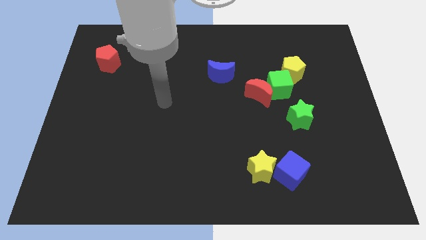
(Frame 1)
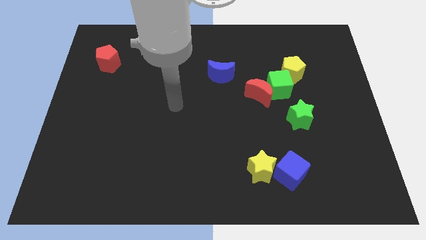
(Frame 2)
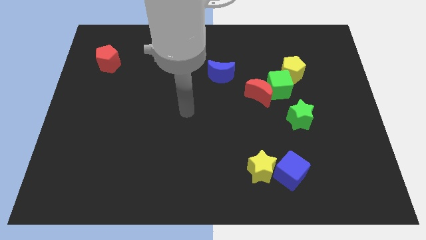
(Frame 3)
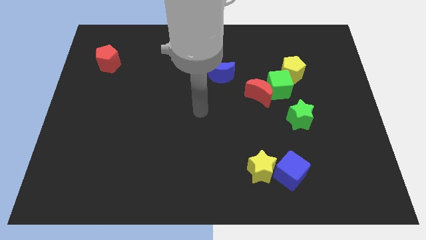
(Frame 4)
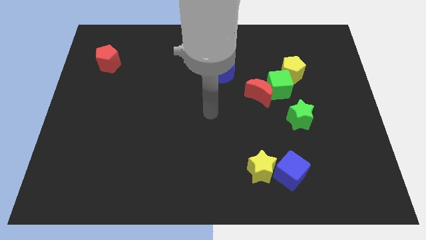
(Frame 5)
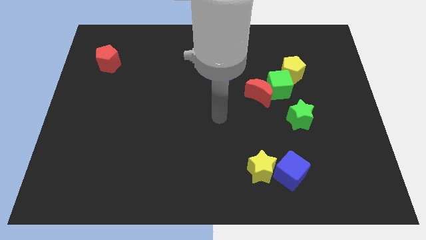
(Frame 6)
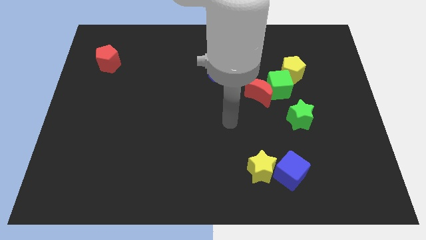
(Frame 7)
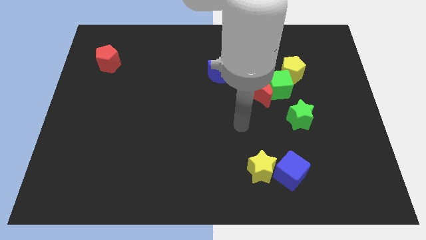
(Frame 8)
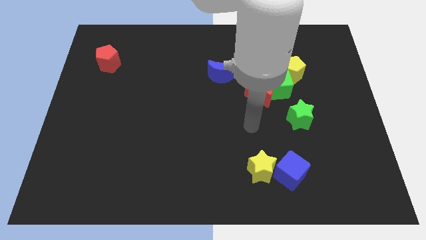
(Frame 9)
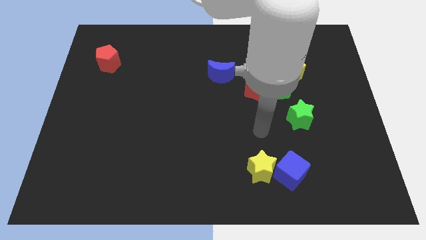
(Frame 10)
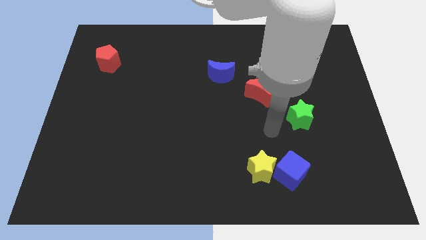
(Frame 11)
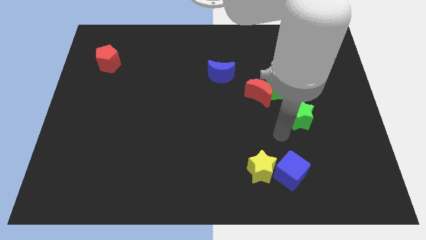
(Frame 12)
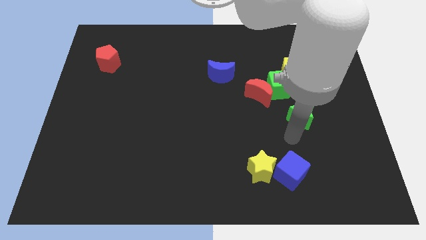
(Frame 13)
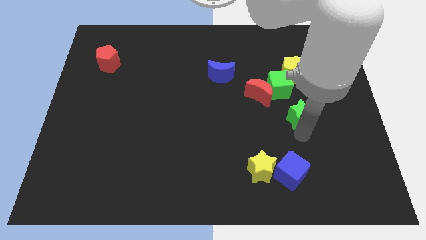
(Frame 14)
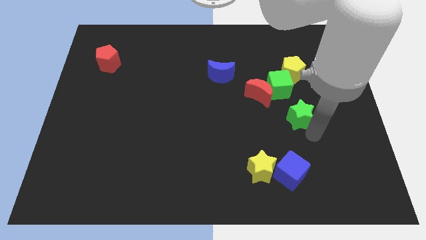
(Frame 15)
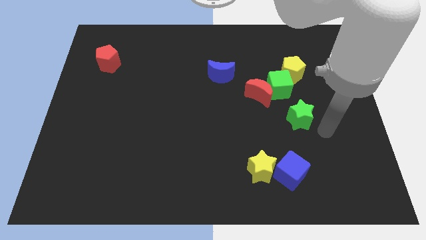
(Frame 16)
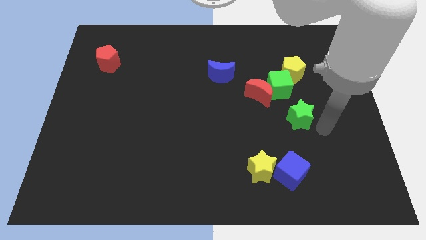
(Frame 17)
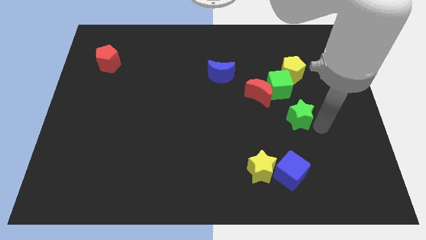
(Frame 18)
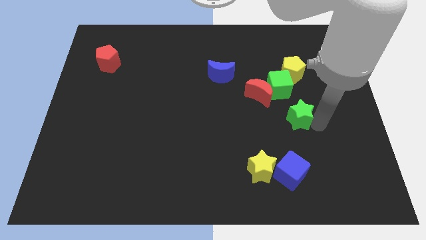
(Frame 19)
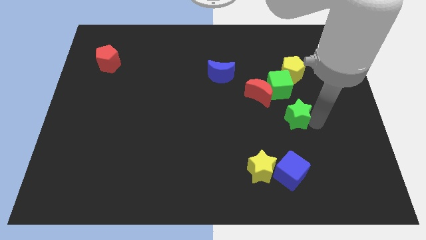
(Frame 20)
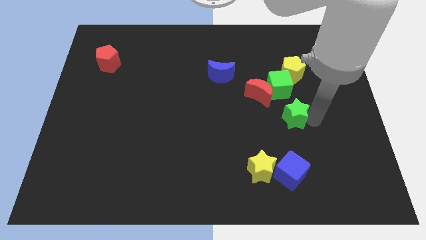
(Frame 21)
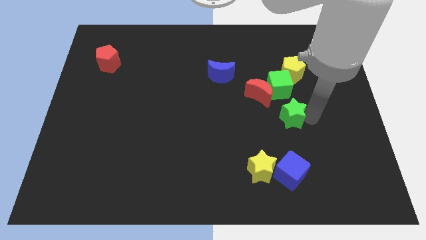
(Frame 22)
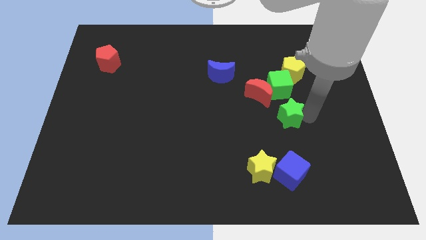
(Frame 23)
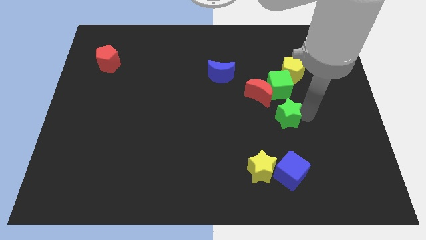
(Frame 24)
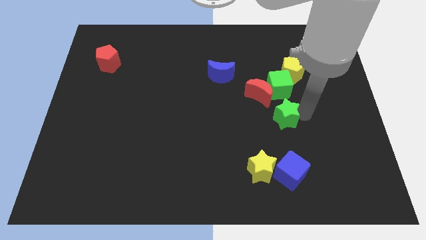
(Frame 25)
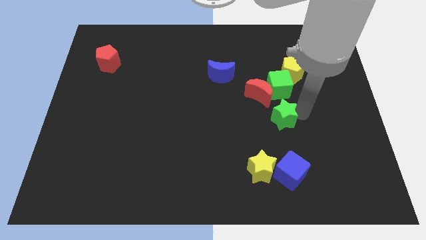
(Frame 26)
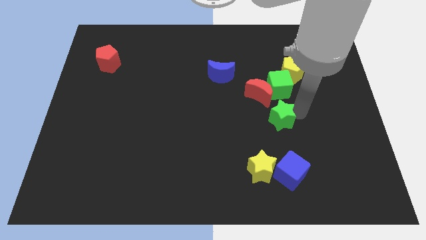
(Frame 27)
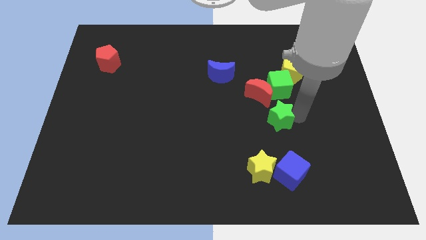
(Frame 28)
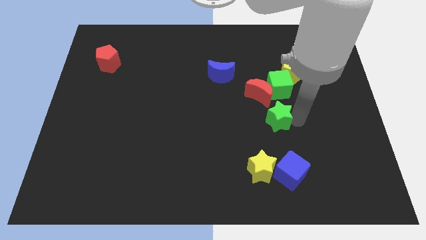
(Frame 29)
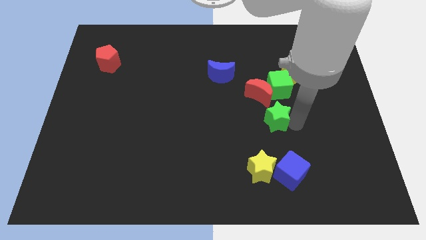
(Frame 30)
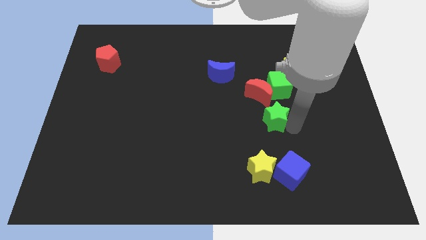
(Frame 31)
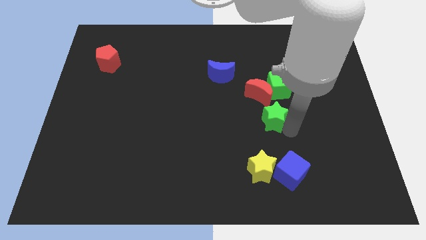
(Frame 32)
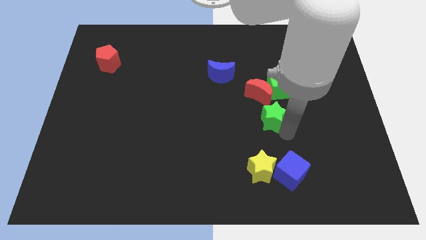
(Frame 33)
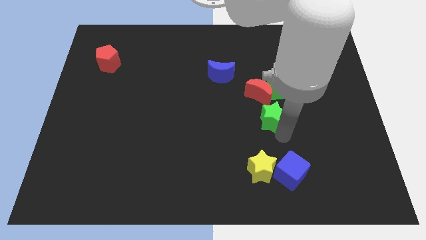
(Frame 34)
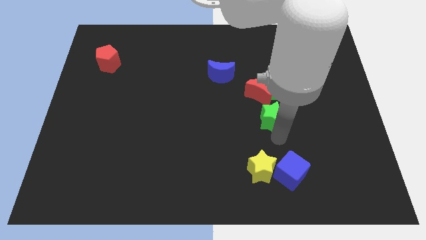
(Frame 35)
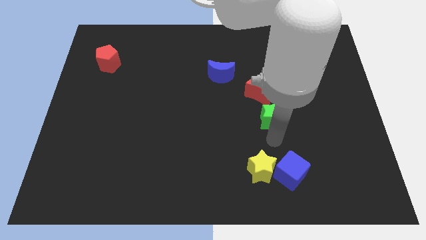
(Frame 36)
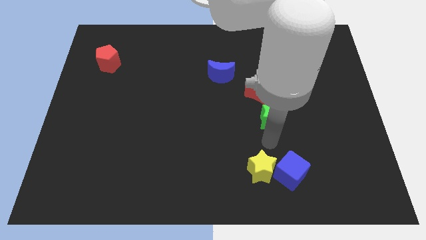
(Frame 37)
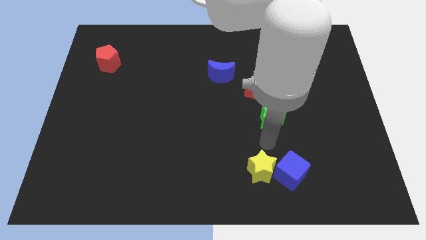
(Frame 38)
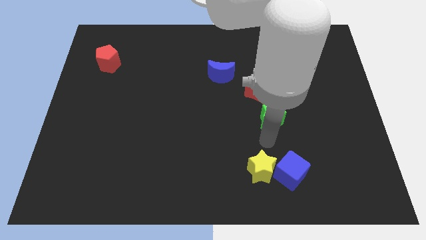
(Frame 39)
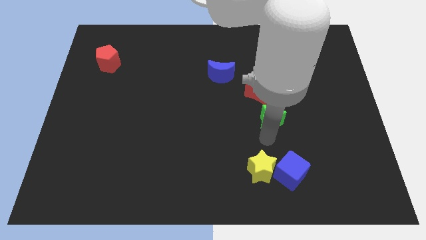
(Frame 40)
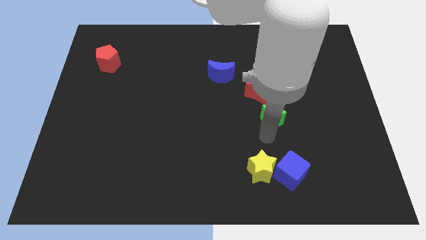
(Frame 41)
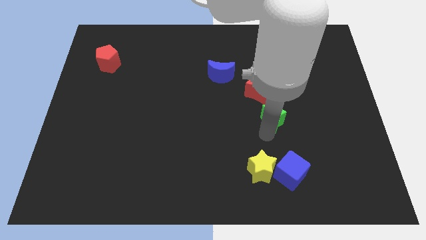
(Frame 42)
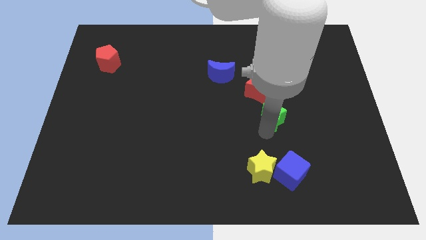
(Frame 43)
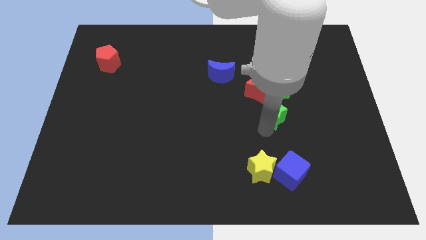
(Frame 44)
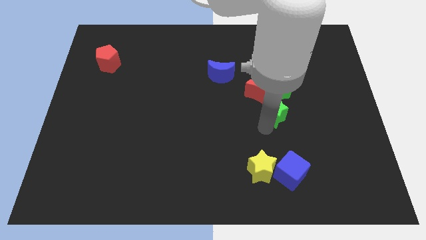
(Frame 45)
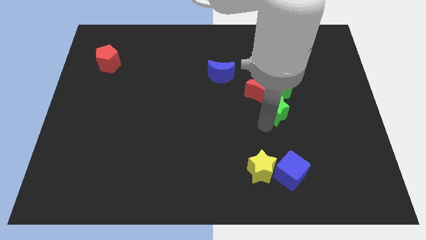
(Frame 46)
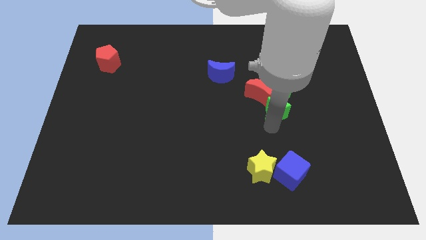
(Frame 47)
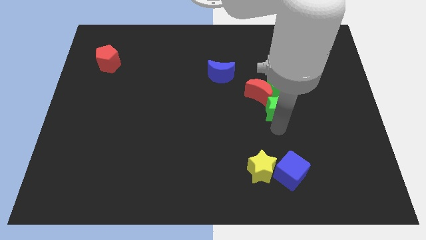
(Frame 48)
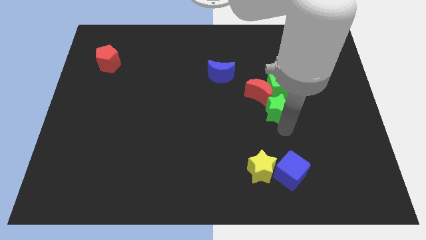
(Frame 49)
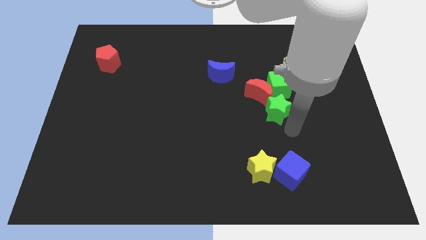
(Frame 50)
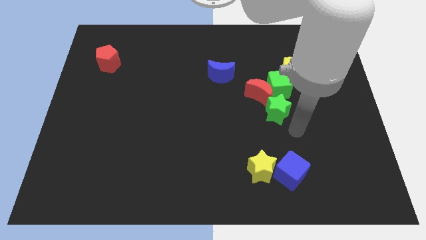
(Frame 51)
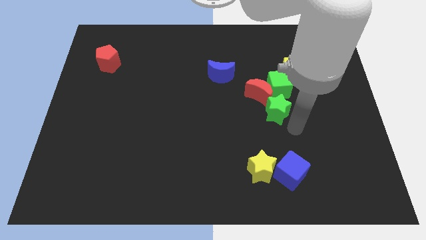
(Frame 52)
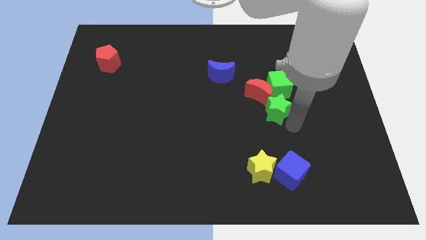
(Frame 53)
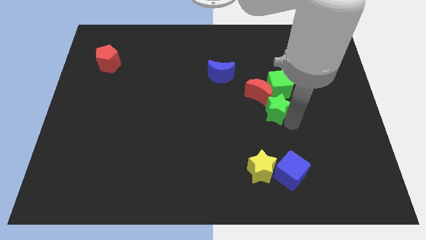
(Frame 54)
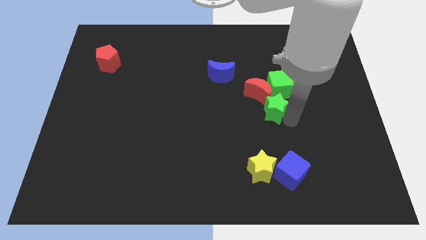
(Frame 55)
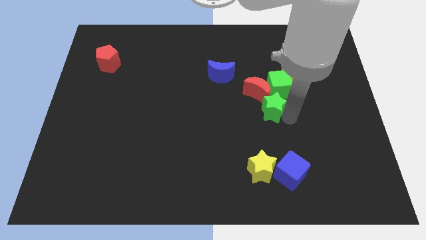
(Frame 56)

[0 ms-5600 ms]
put the green star close to the red moon

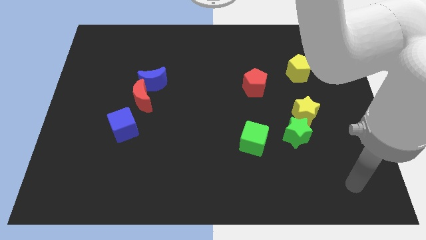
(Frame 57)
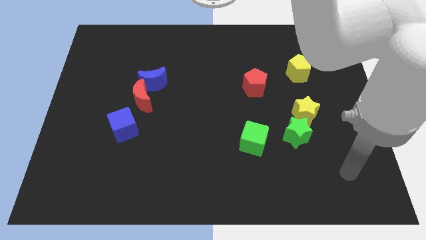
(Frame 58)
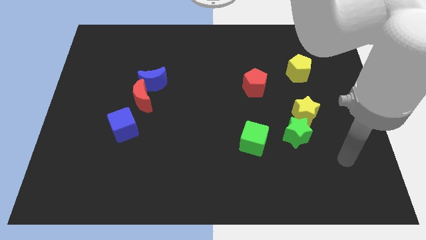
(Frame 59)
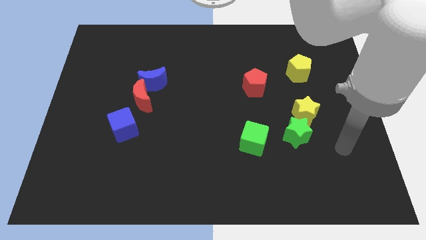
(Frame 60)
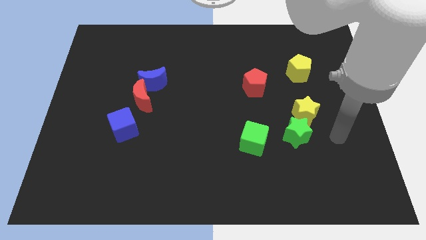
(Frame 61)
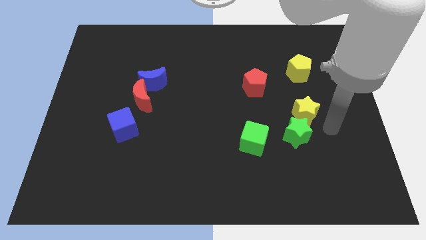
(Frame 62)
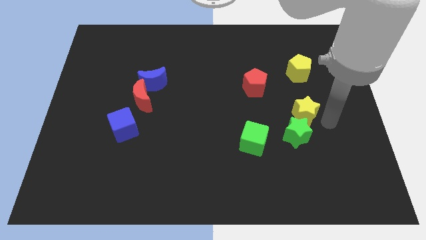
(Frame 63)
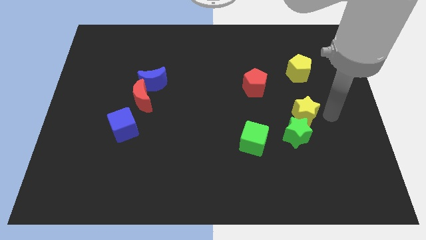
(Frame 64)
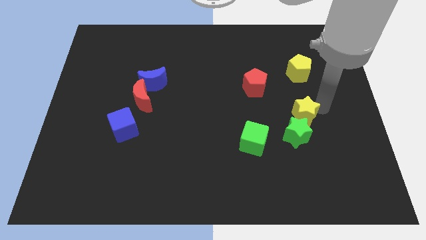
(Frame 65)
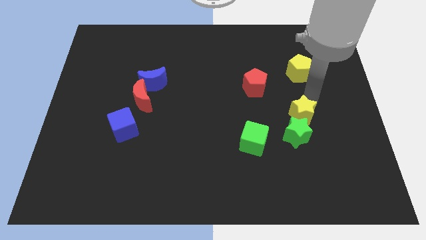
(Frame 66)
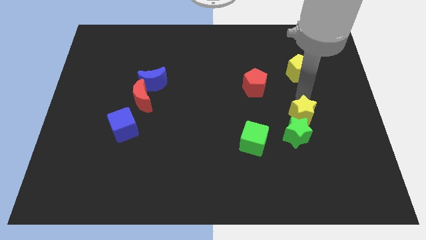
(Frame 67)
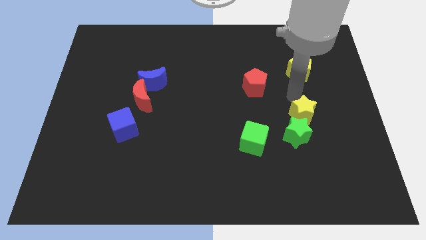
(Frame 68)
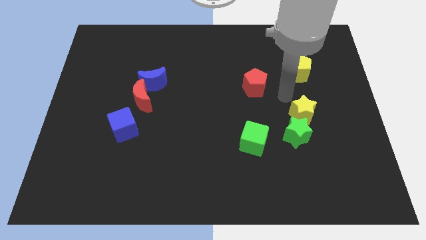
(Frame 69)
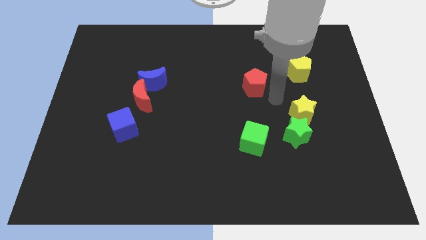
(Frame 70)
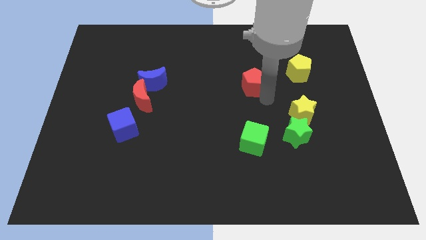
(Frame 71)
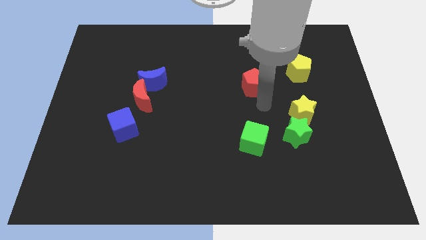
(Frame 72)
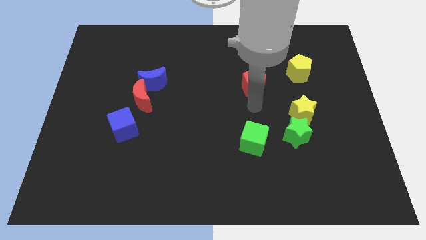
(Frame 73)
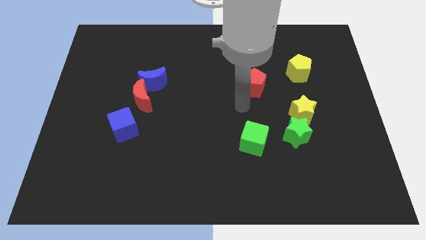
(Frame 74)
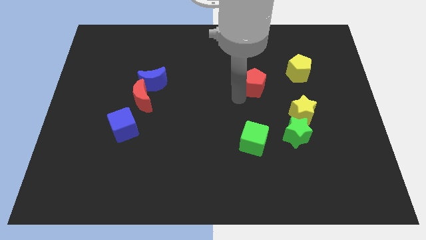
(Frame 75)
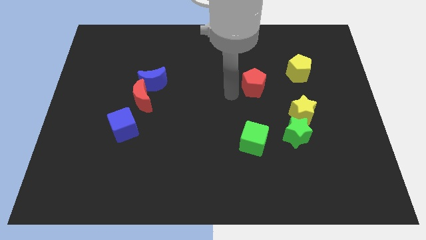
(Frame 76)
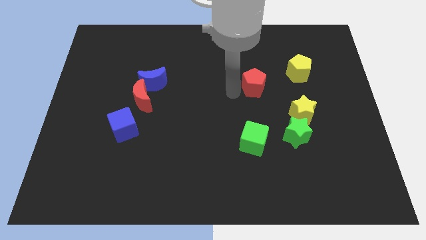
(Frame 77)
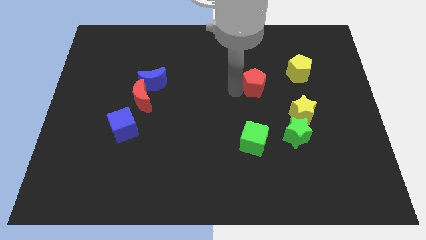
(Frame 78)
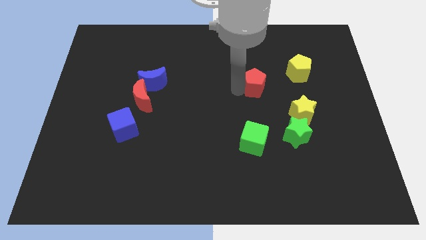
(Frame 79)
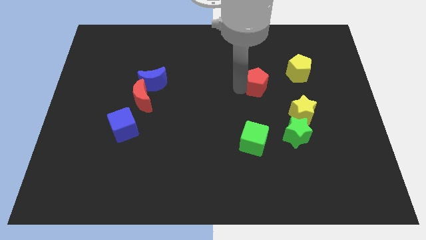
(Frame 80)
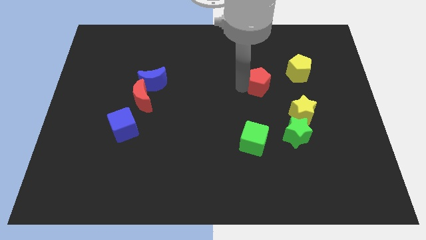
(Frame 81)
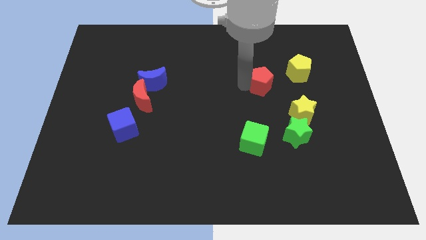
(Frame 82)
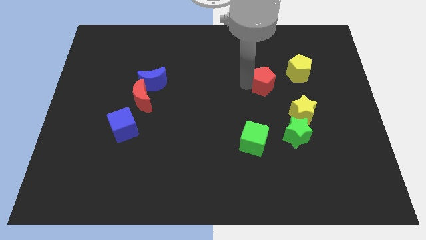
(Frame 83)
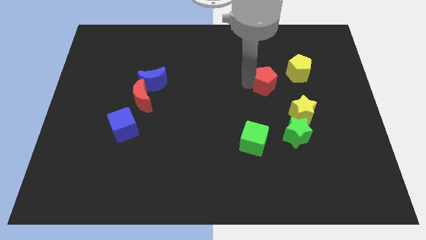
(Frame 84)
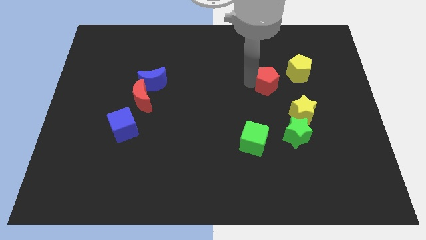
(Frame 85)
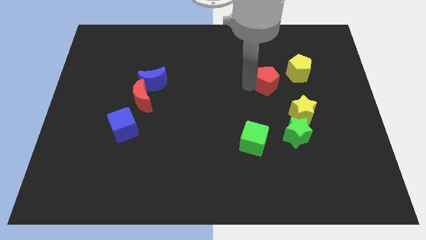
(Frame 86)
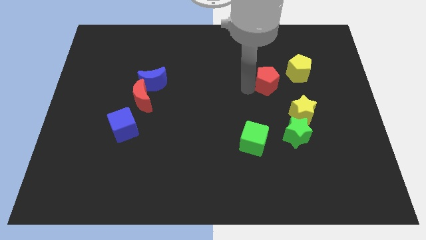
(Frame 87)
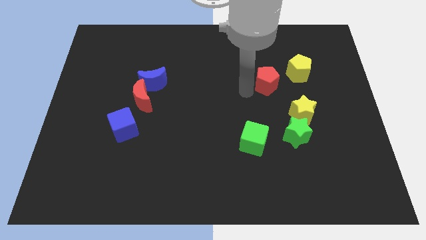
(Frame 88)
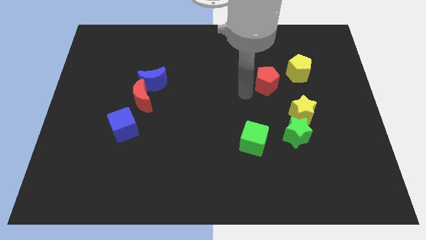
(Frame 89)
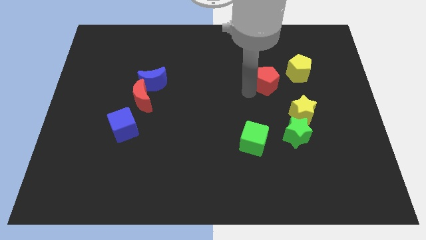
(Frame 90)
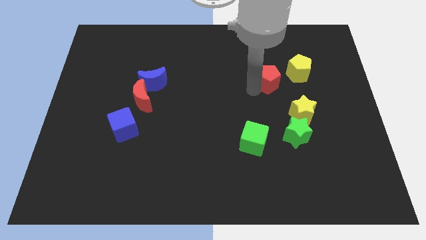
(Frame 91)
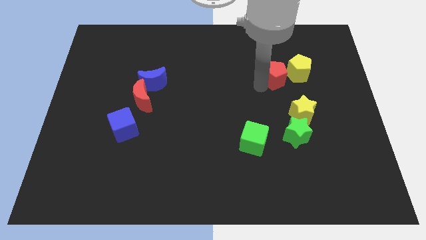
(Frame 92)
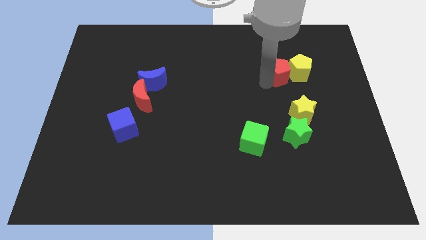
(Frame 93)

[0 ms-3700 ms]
push the red pentagon next to the yellow pentagon
